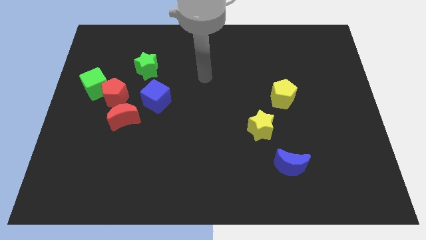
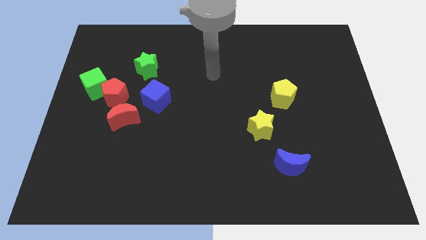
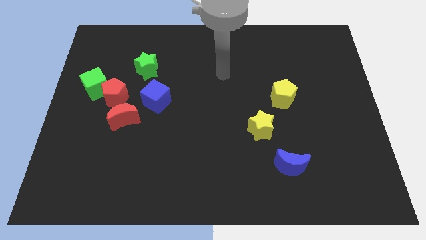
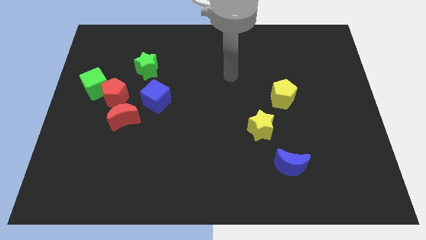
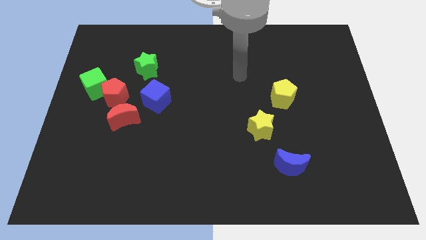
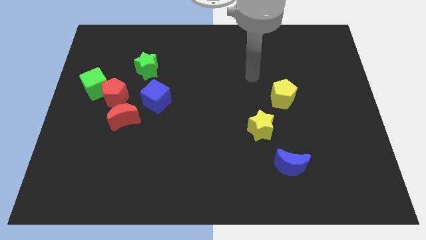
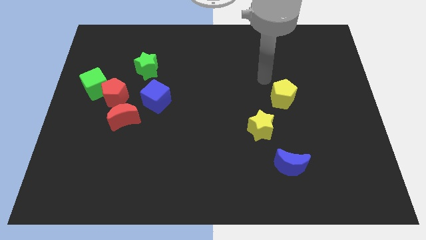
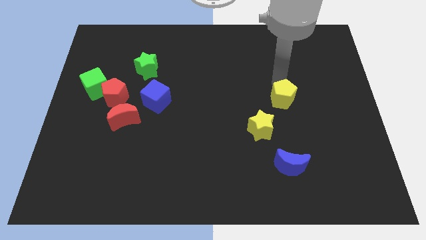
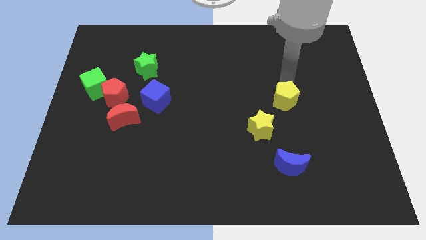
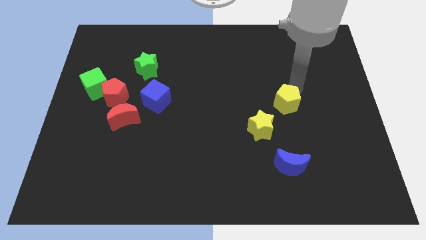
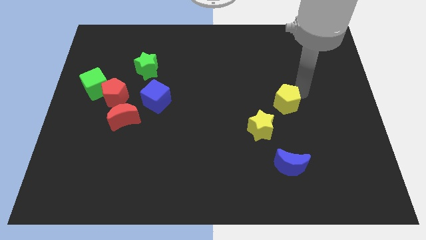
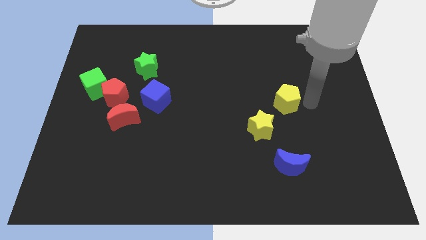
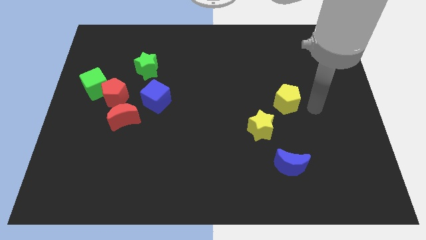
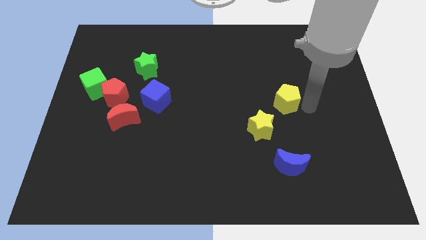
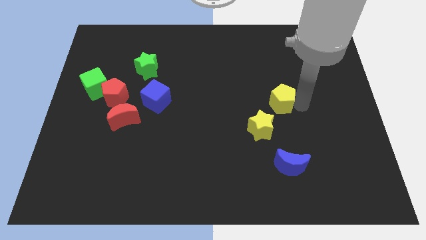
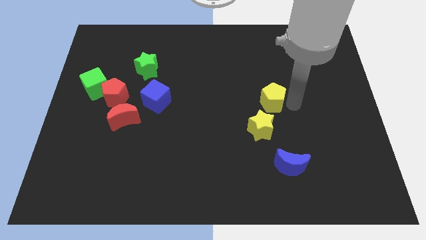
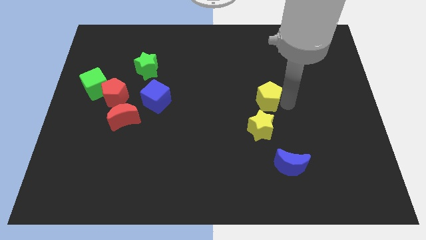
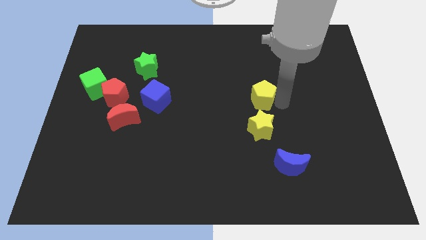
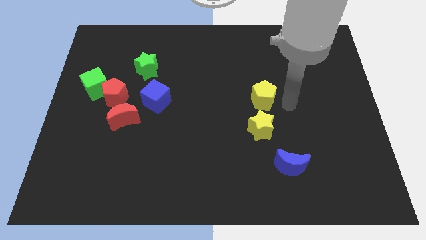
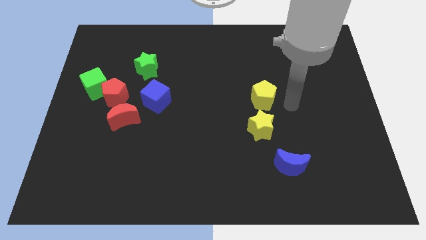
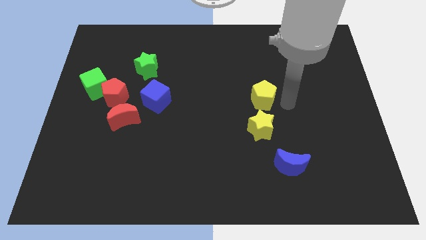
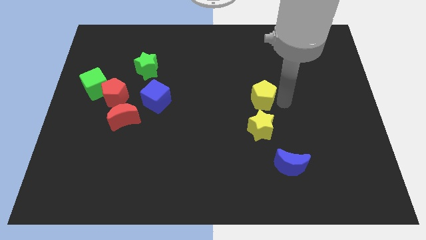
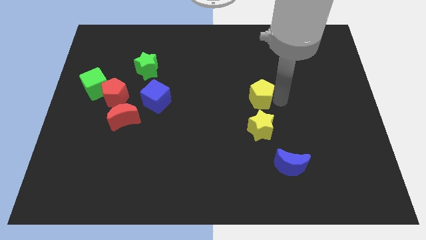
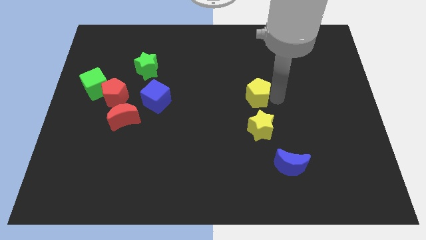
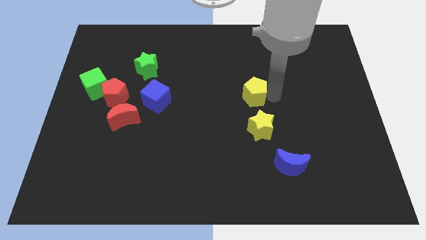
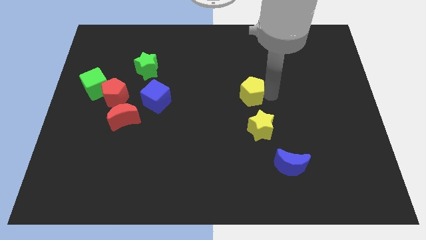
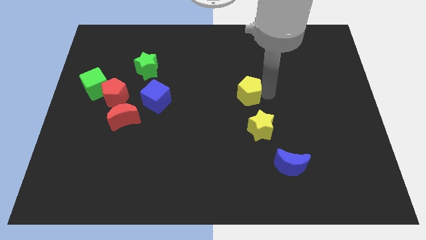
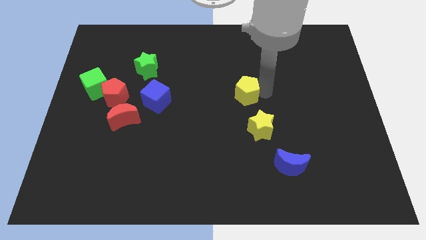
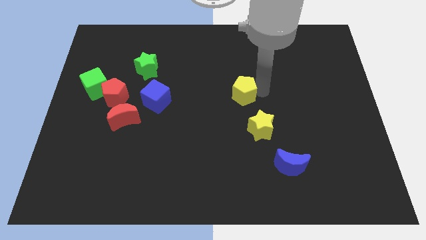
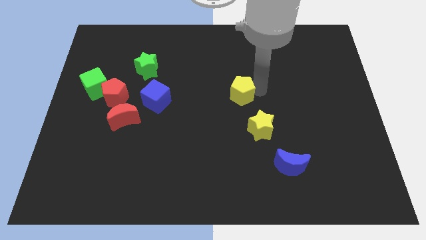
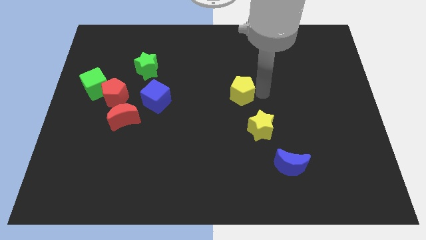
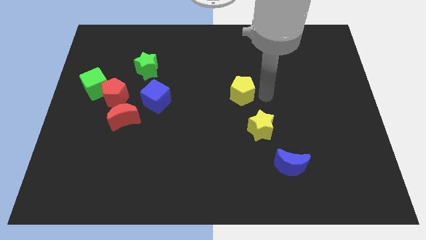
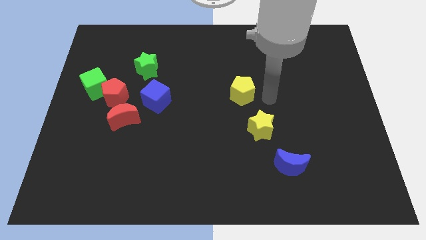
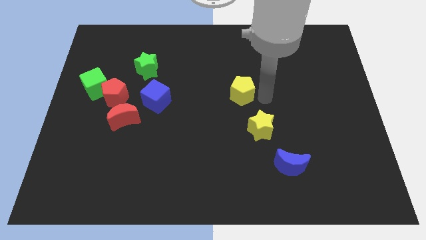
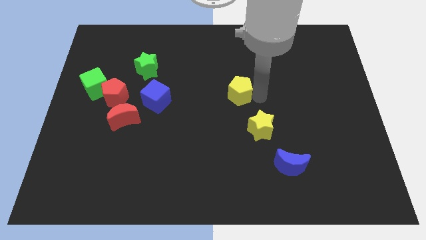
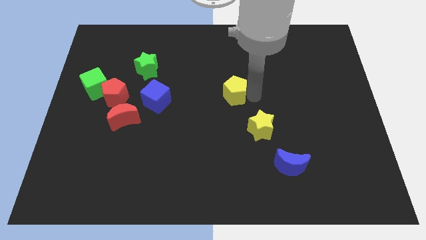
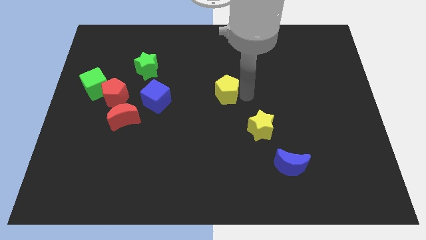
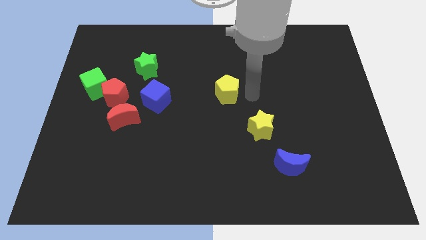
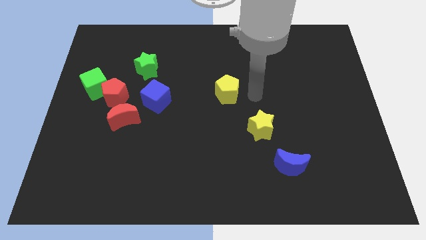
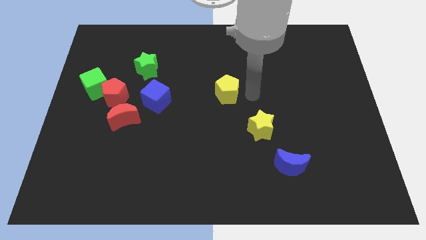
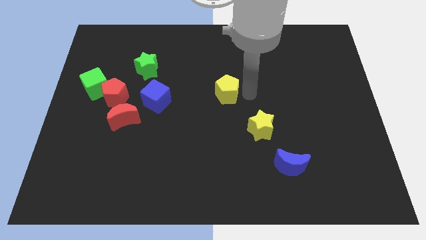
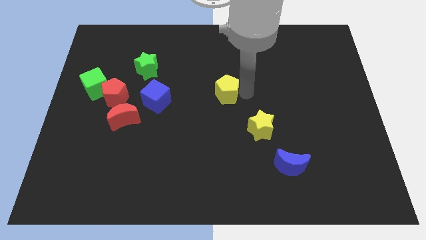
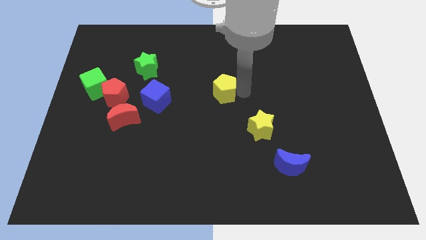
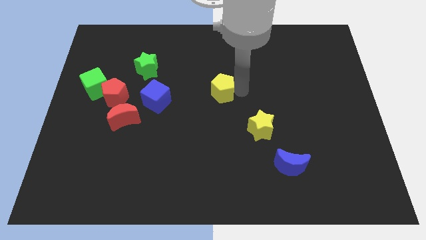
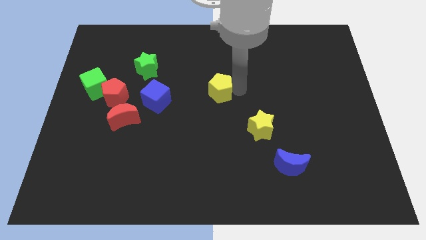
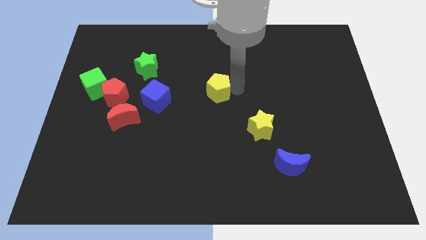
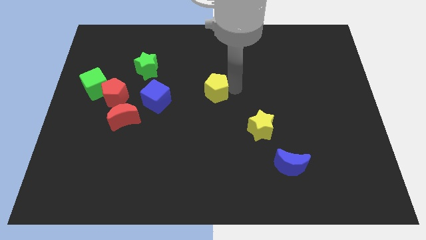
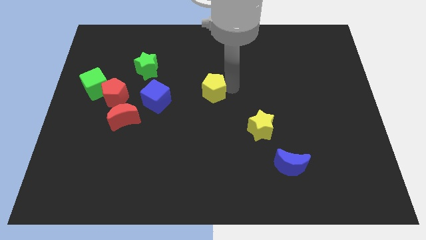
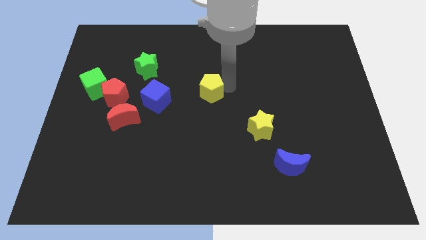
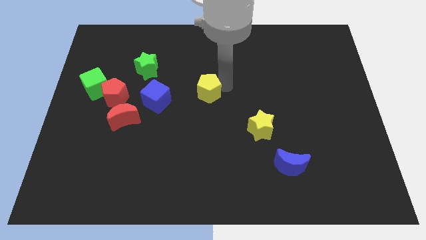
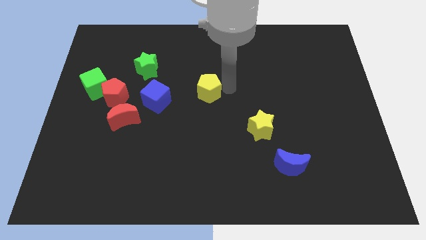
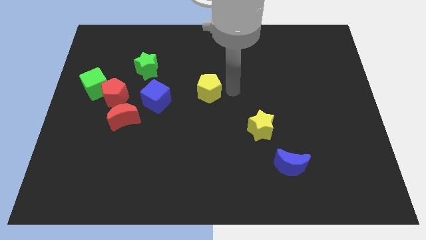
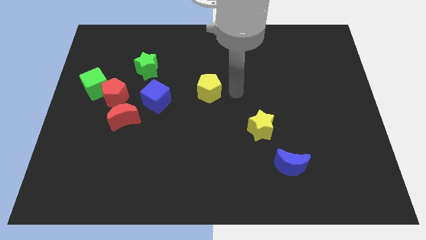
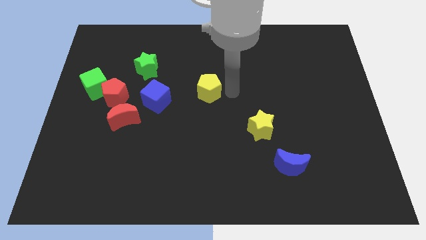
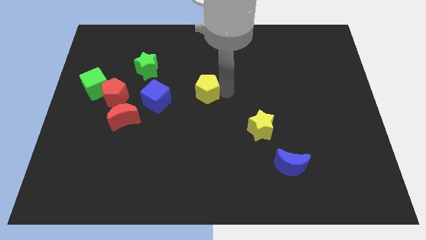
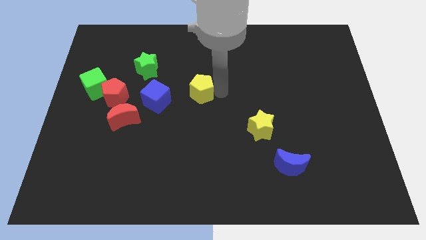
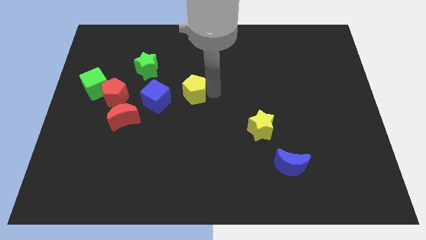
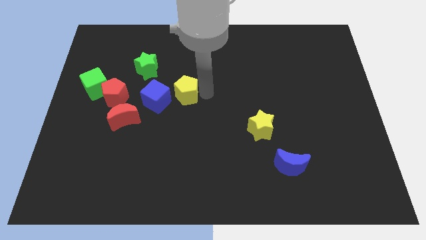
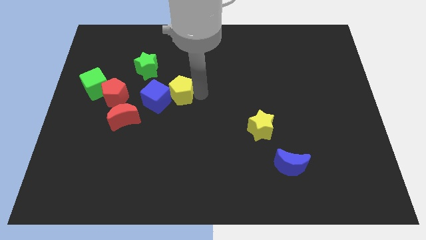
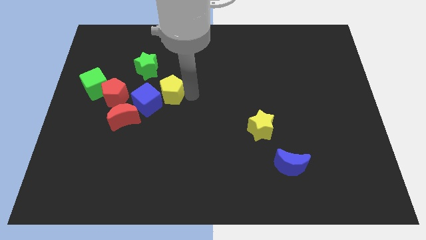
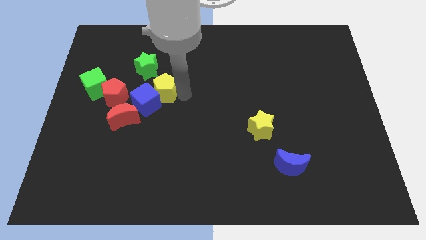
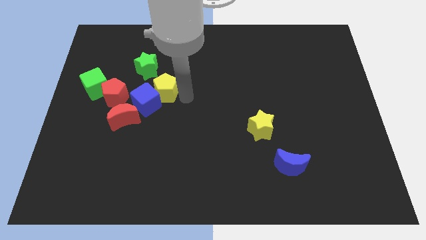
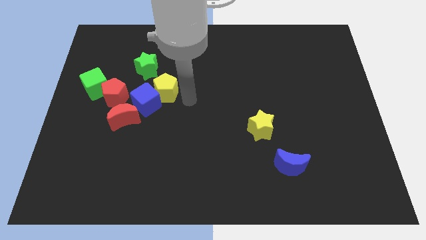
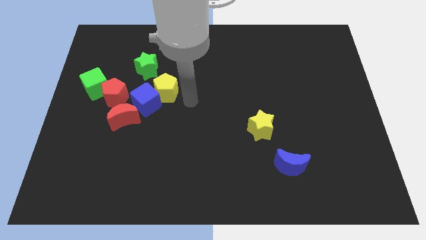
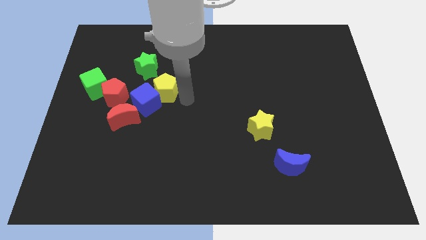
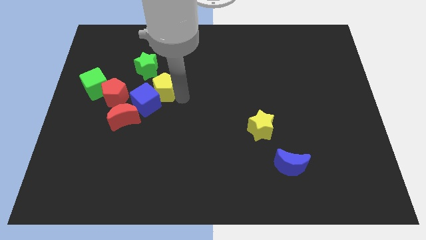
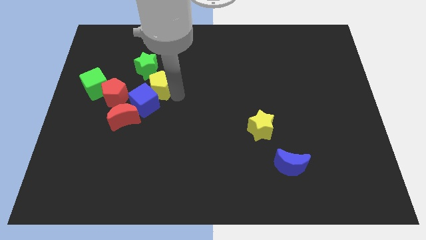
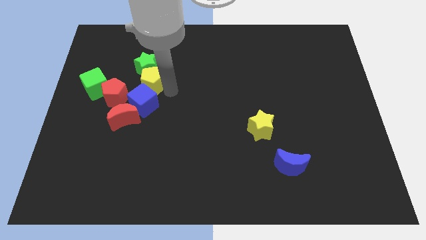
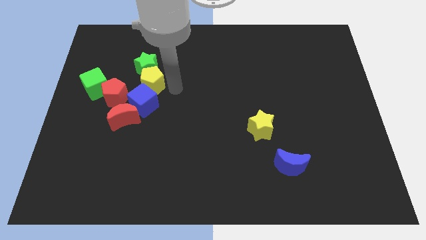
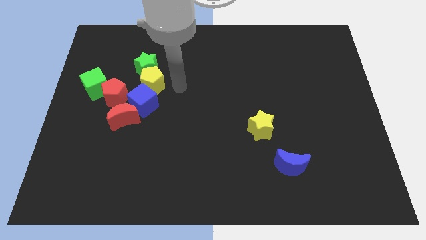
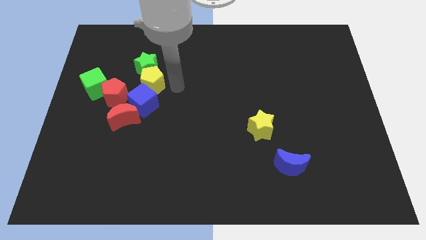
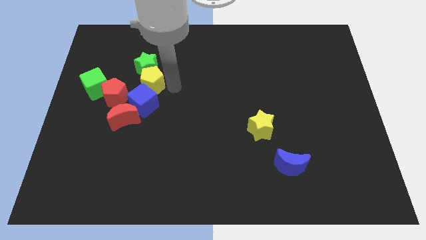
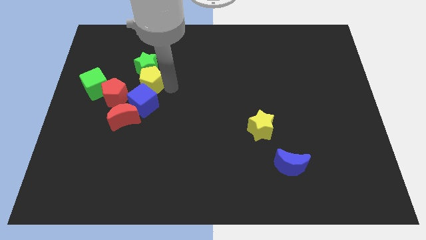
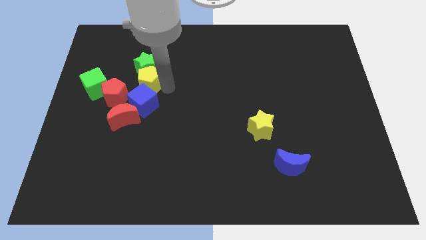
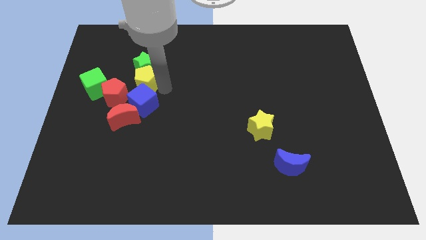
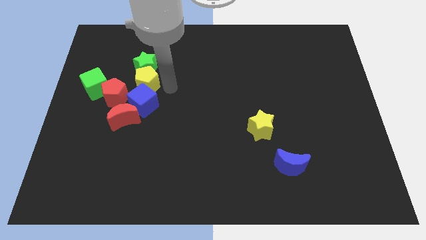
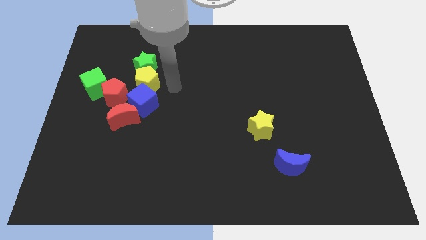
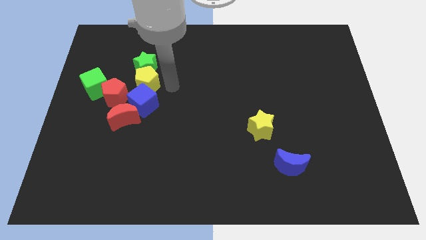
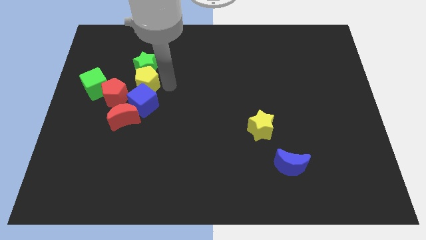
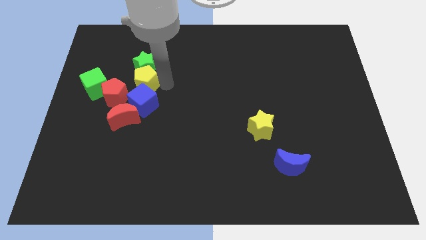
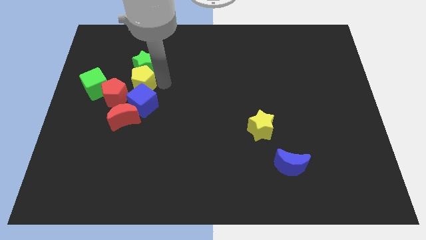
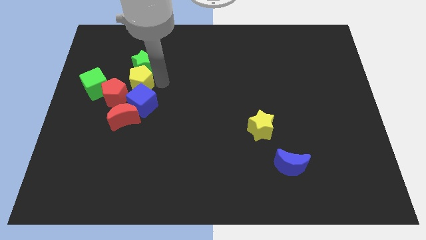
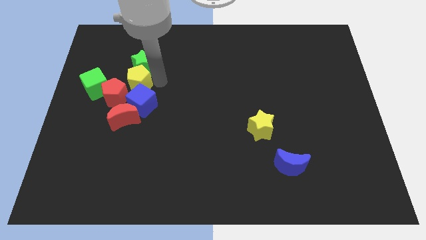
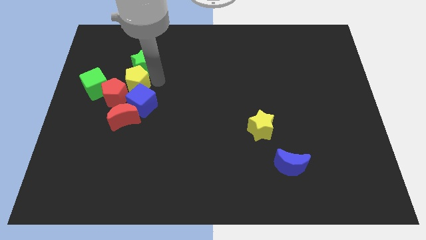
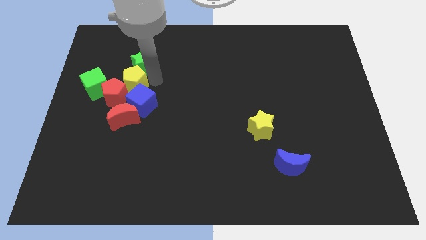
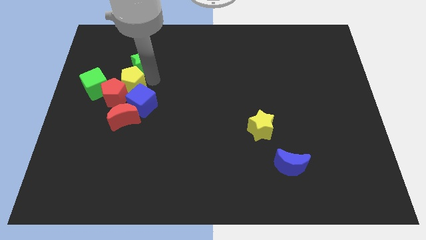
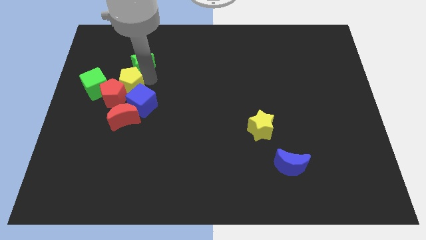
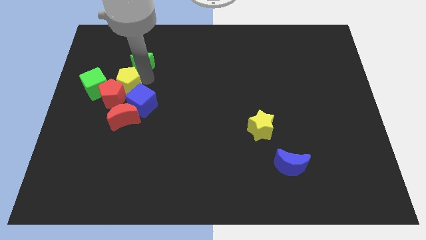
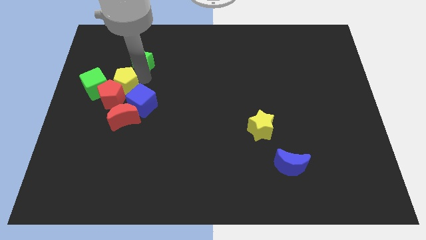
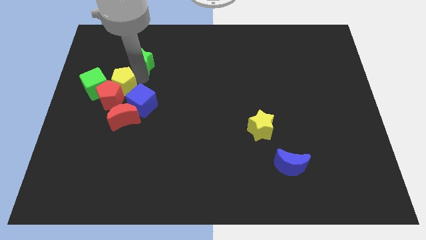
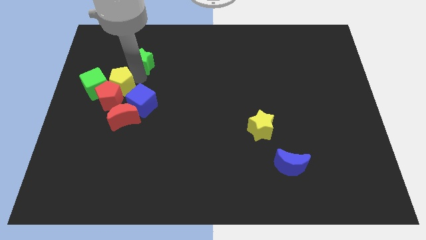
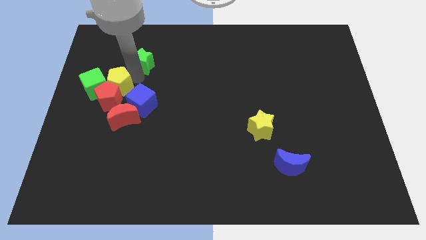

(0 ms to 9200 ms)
move the yellow pentagon to the green cube
